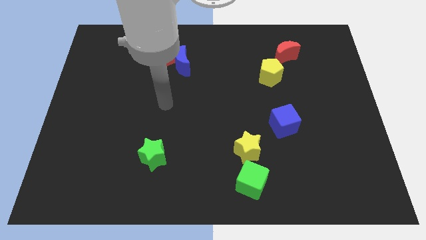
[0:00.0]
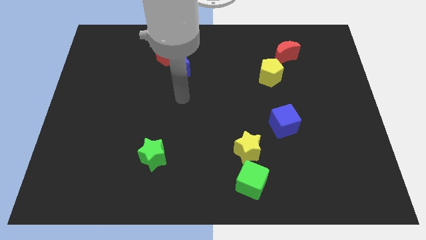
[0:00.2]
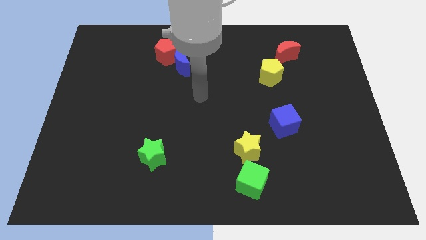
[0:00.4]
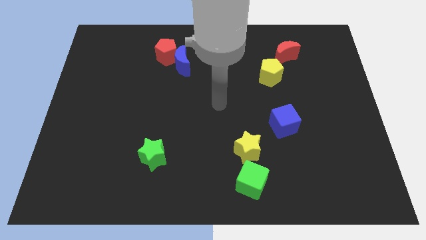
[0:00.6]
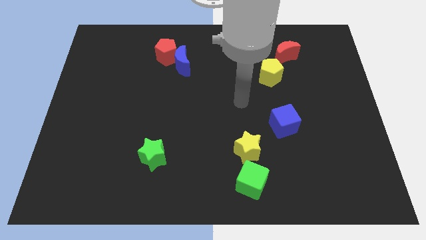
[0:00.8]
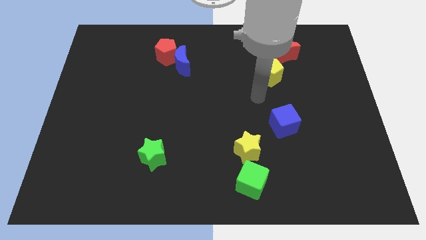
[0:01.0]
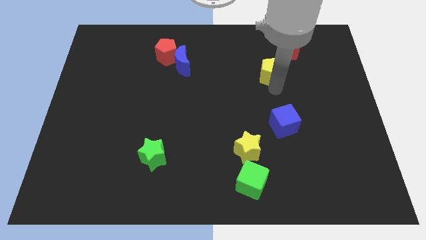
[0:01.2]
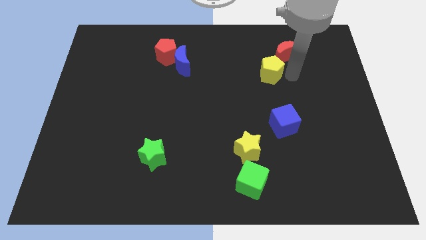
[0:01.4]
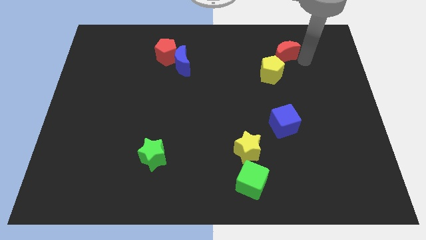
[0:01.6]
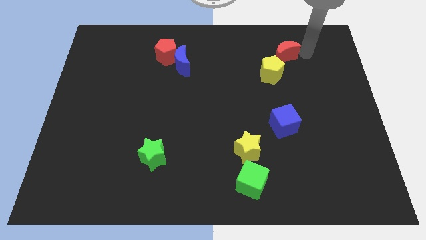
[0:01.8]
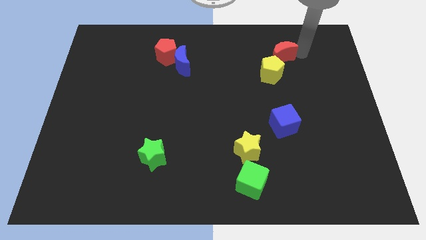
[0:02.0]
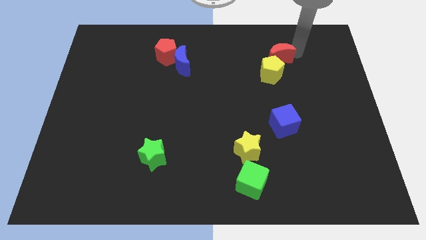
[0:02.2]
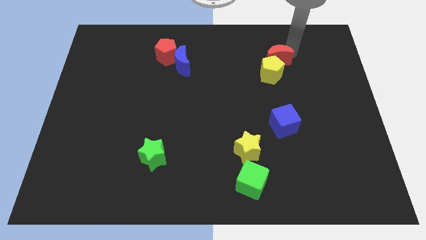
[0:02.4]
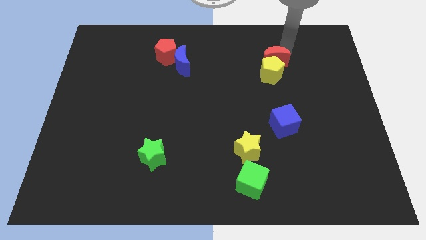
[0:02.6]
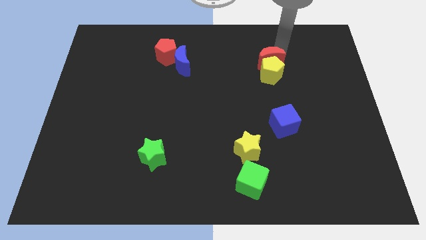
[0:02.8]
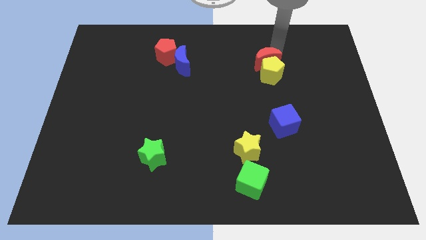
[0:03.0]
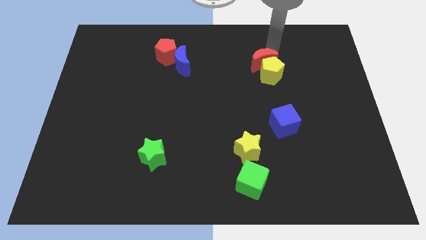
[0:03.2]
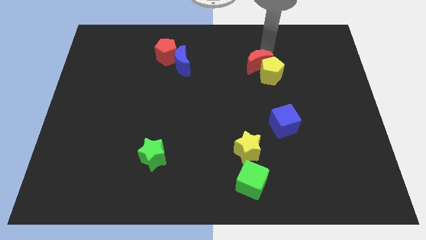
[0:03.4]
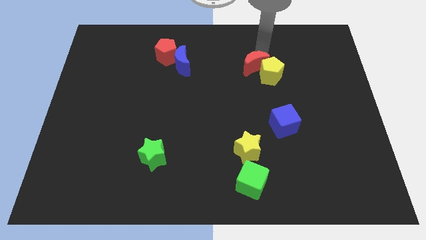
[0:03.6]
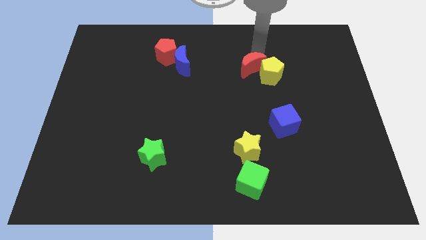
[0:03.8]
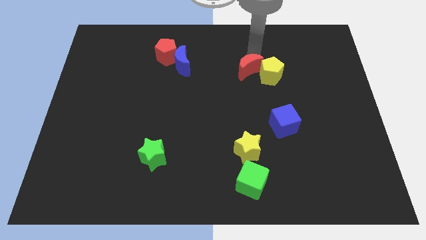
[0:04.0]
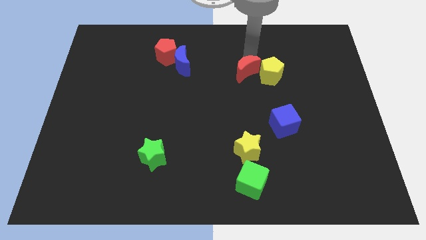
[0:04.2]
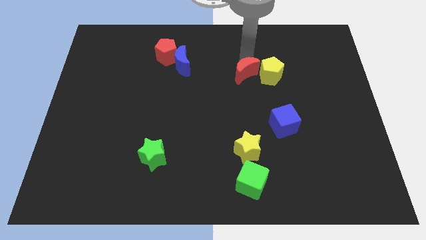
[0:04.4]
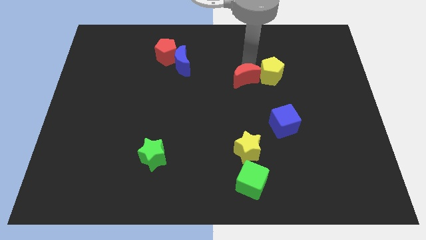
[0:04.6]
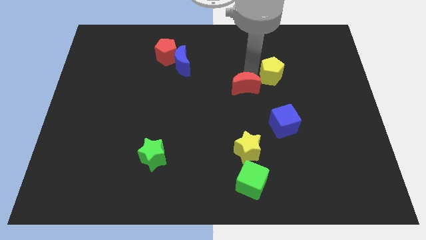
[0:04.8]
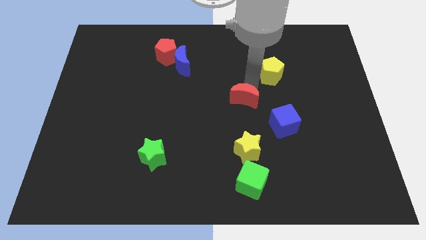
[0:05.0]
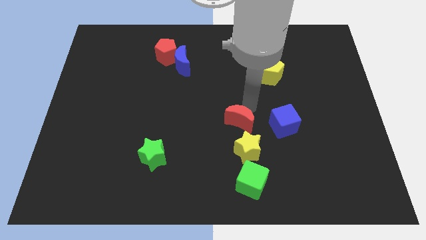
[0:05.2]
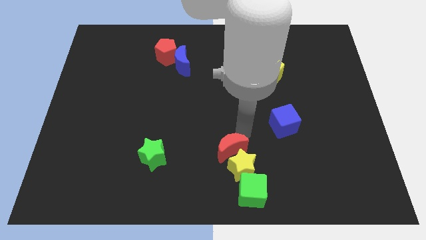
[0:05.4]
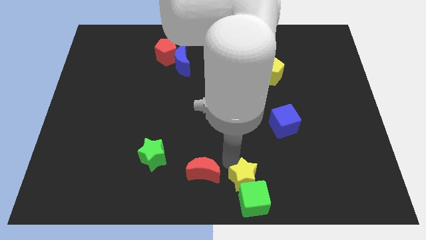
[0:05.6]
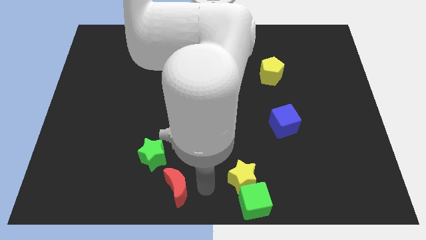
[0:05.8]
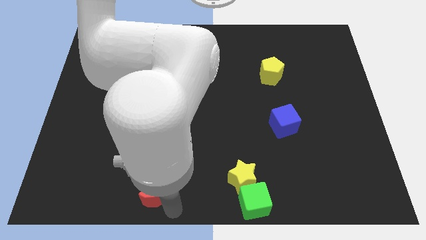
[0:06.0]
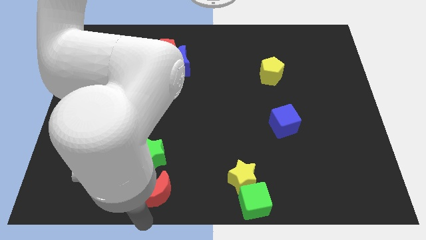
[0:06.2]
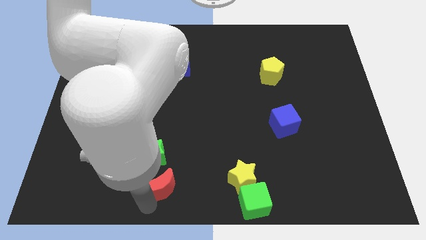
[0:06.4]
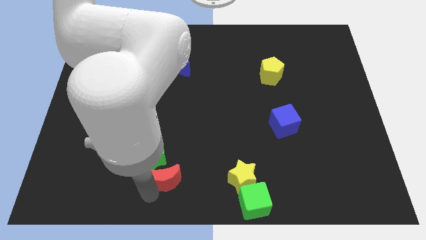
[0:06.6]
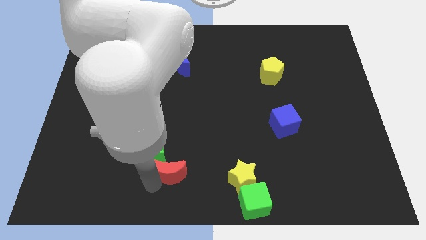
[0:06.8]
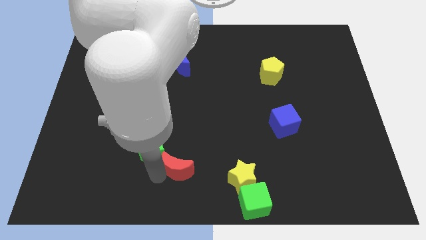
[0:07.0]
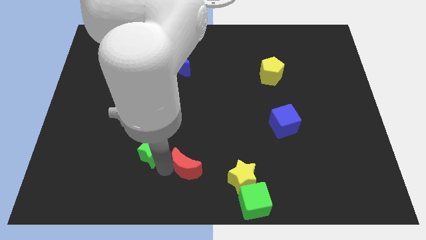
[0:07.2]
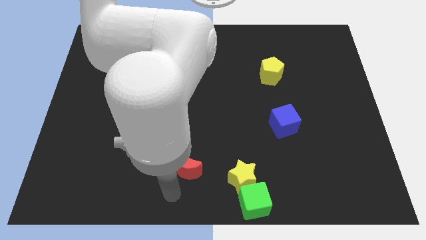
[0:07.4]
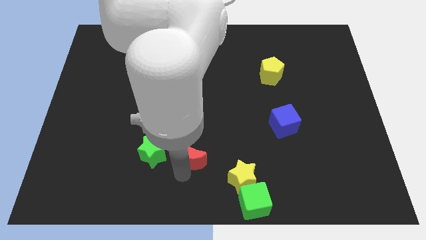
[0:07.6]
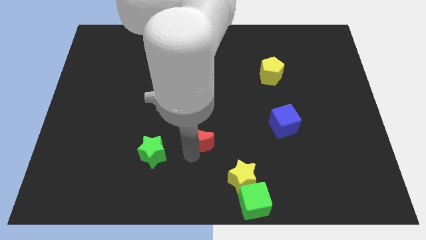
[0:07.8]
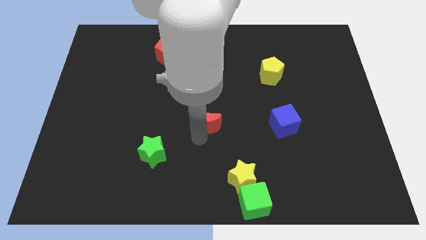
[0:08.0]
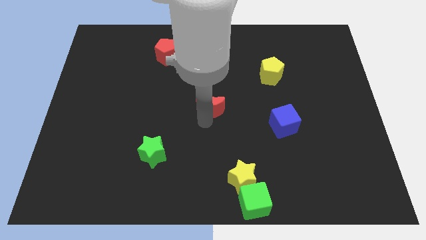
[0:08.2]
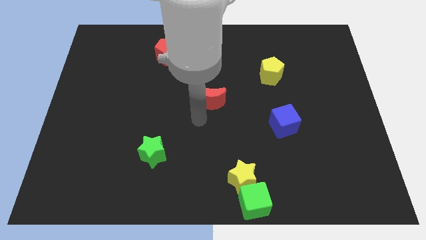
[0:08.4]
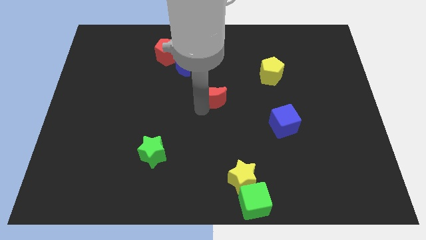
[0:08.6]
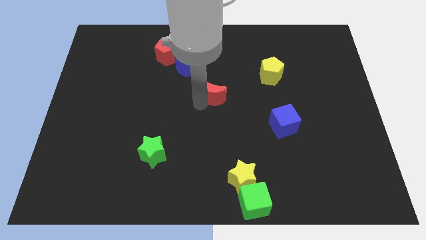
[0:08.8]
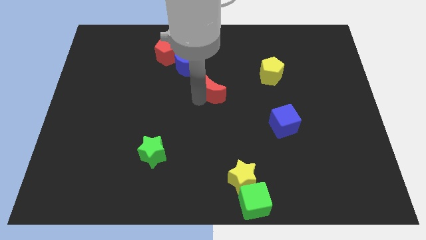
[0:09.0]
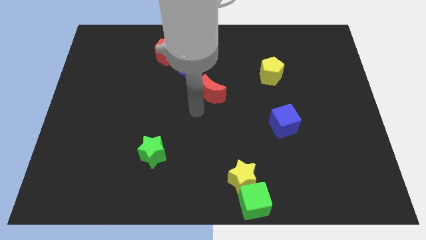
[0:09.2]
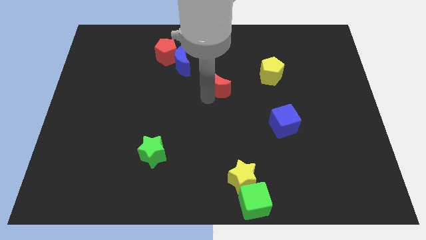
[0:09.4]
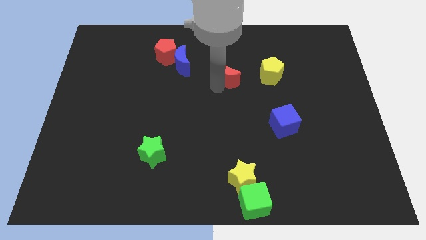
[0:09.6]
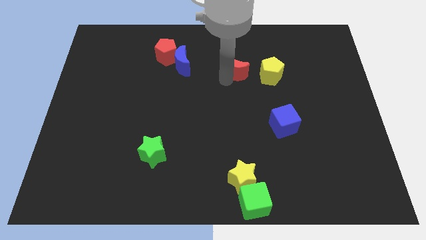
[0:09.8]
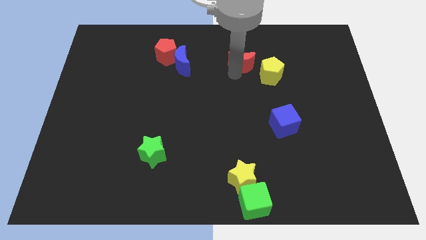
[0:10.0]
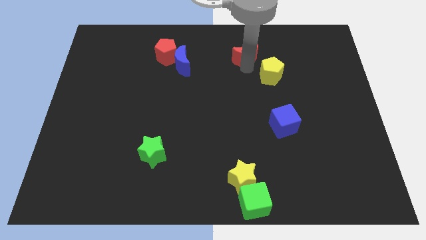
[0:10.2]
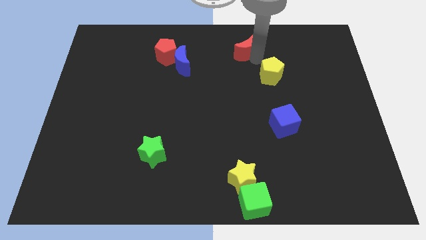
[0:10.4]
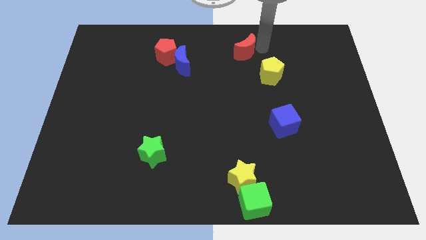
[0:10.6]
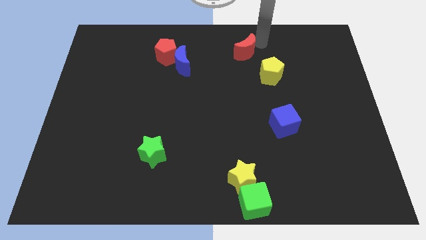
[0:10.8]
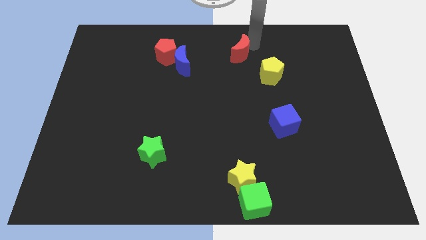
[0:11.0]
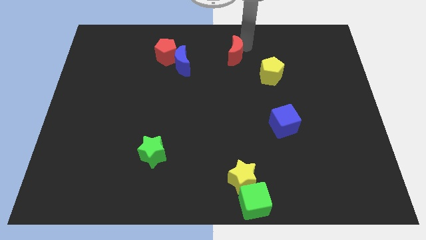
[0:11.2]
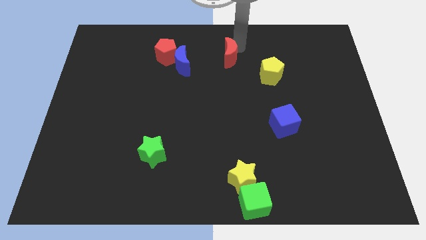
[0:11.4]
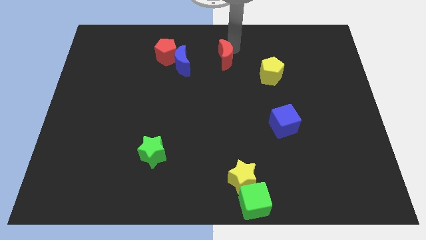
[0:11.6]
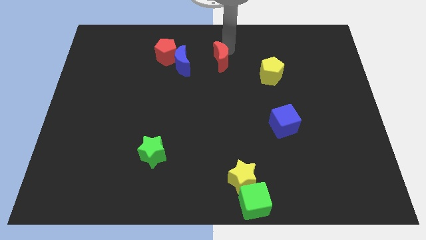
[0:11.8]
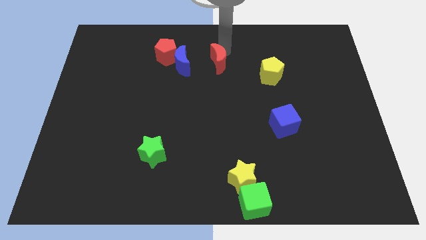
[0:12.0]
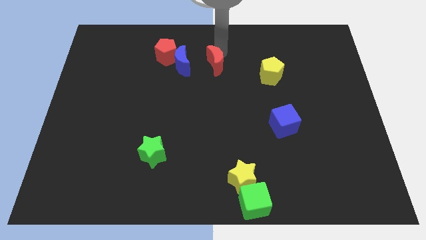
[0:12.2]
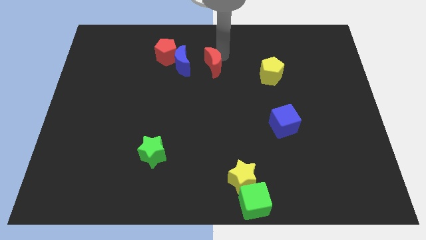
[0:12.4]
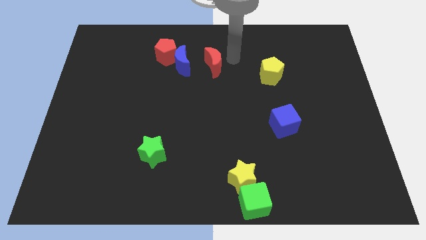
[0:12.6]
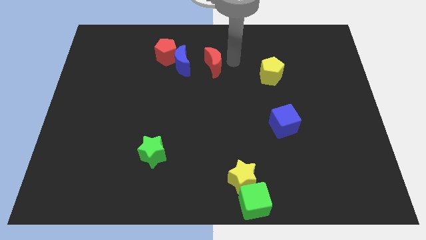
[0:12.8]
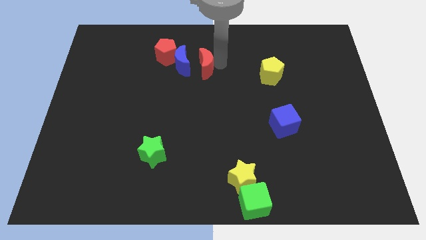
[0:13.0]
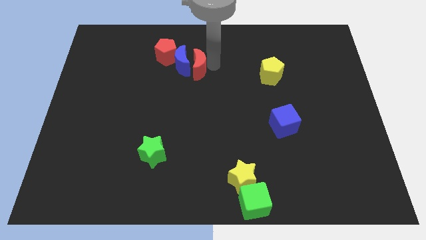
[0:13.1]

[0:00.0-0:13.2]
push the red moon diagonally down and to the right of the red pentagon

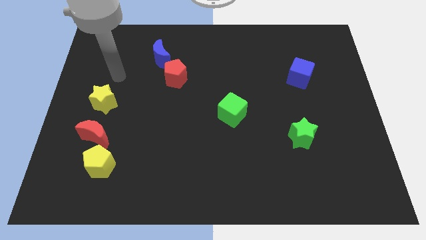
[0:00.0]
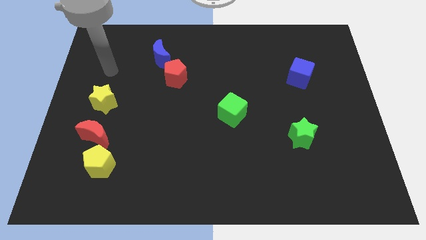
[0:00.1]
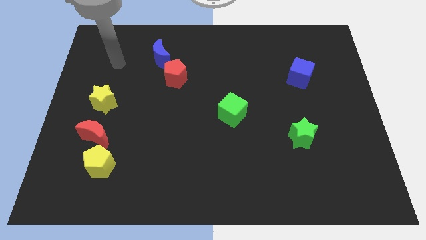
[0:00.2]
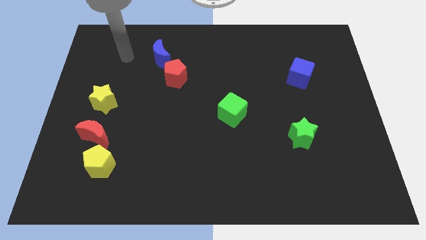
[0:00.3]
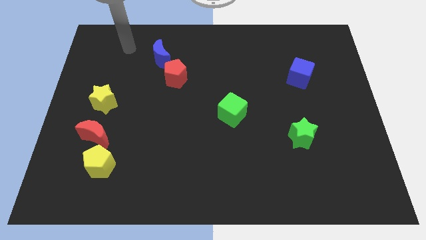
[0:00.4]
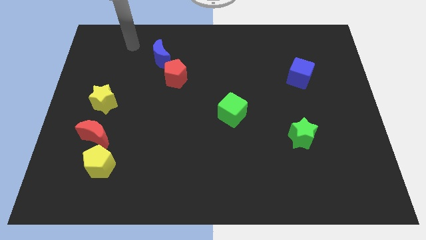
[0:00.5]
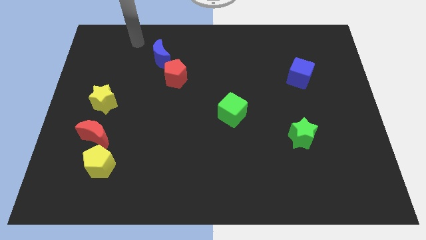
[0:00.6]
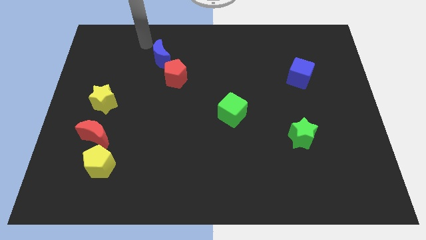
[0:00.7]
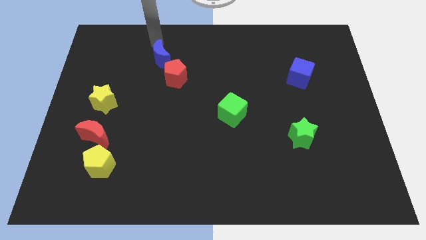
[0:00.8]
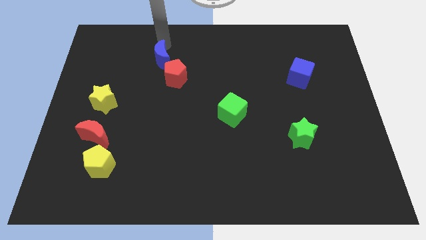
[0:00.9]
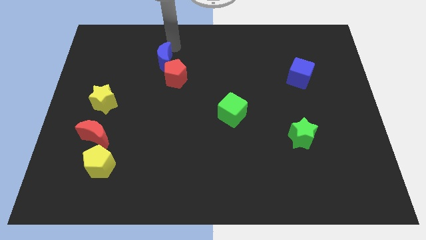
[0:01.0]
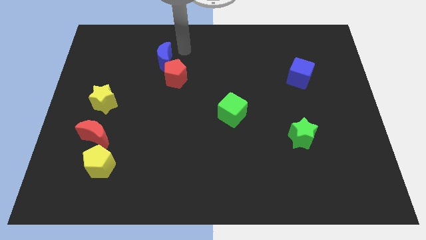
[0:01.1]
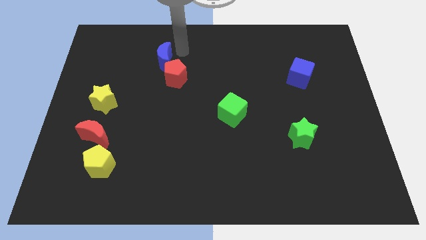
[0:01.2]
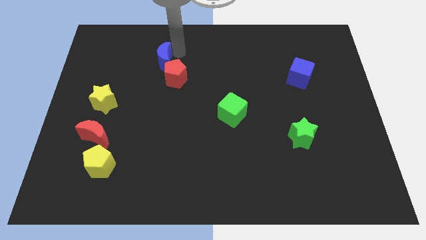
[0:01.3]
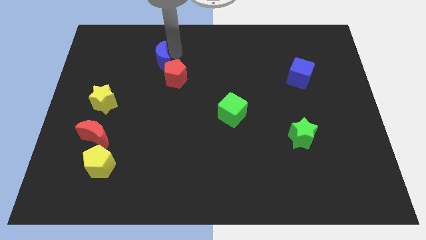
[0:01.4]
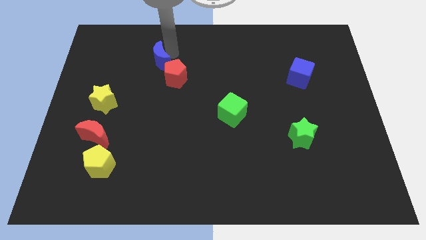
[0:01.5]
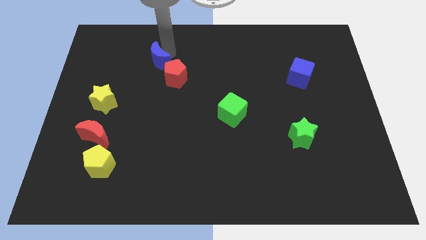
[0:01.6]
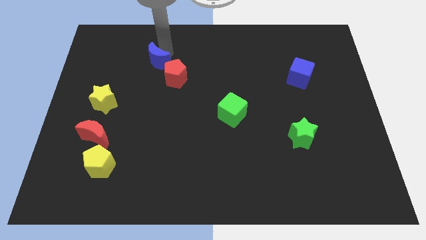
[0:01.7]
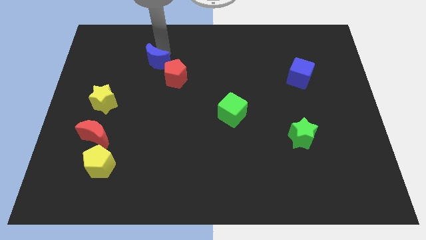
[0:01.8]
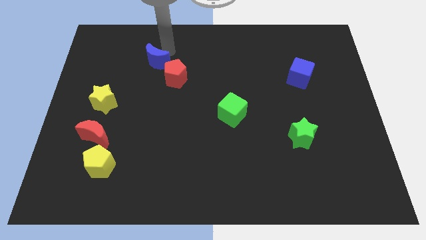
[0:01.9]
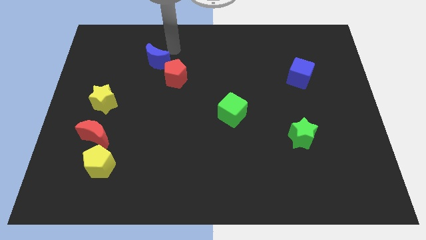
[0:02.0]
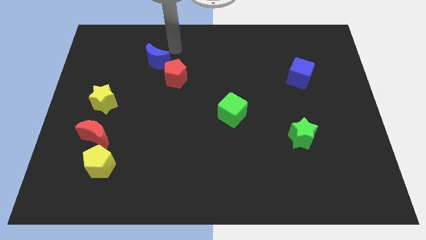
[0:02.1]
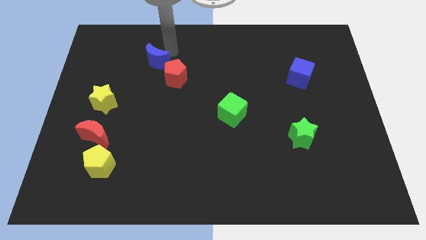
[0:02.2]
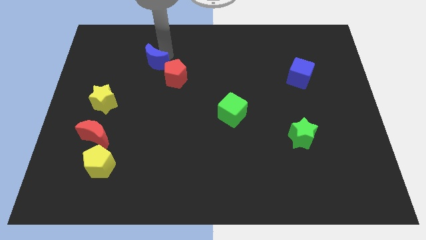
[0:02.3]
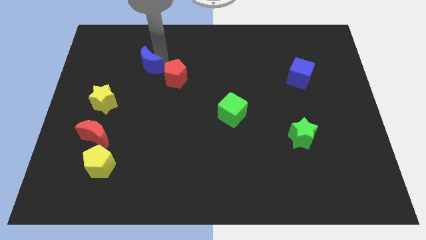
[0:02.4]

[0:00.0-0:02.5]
slide the blue moon just left of the red pentagon
